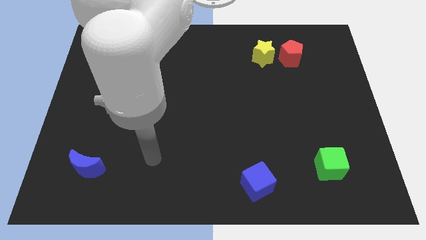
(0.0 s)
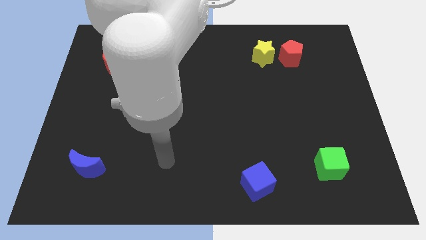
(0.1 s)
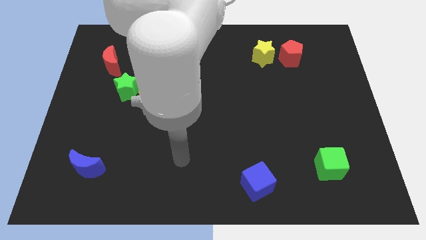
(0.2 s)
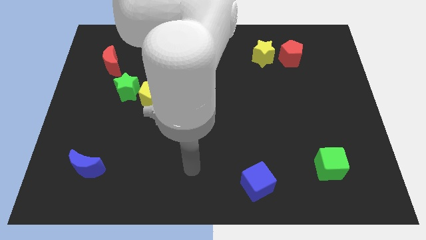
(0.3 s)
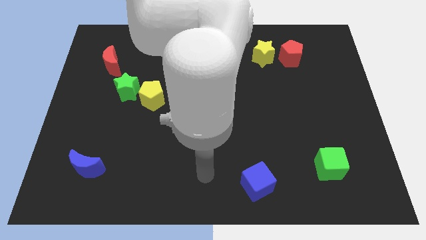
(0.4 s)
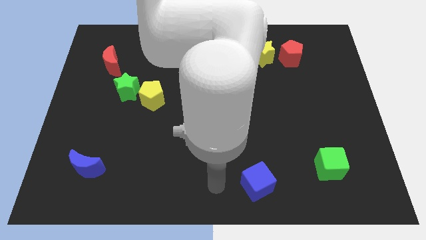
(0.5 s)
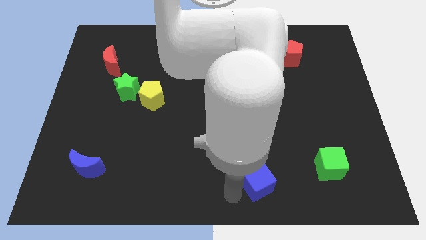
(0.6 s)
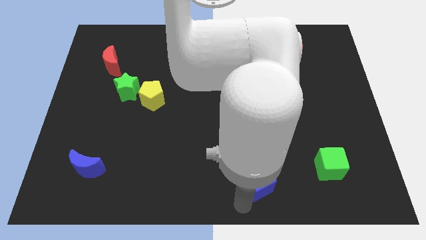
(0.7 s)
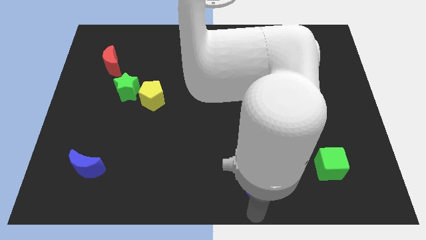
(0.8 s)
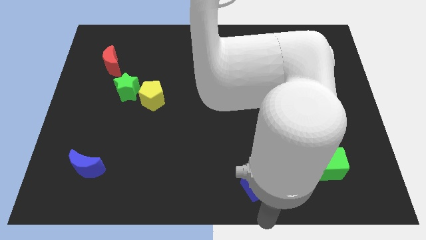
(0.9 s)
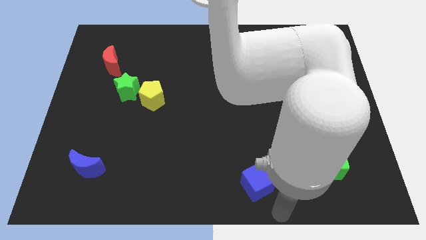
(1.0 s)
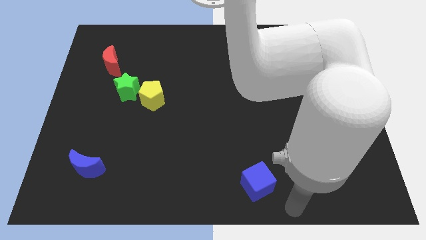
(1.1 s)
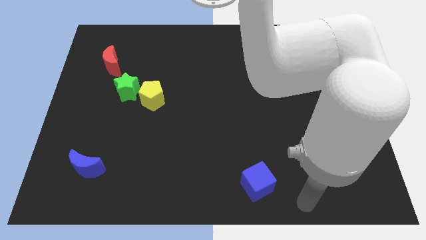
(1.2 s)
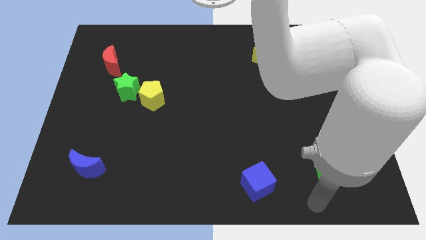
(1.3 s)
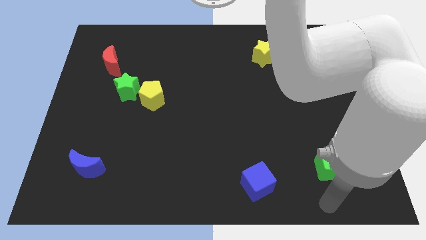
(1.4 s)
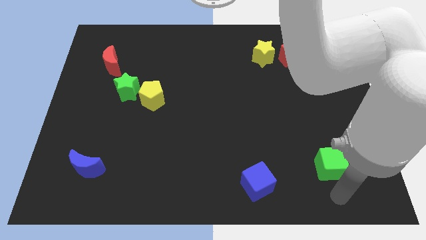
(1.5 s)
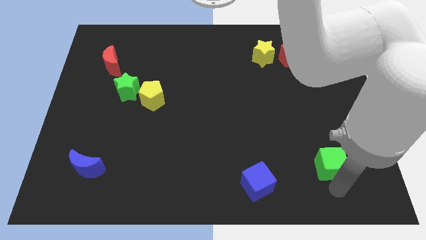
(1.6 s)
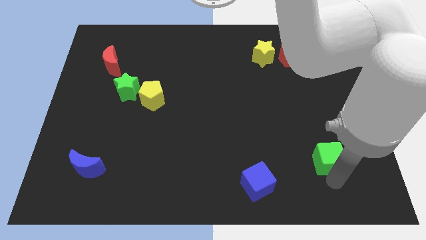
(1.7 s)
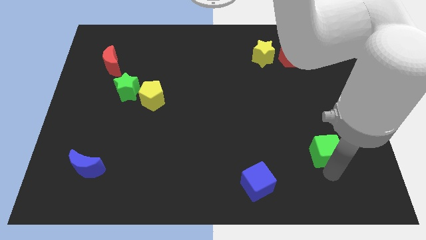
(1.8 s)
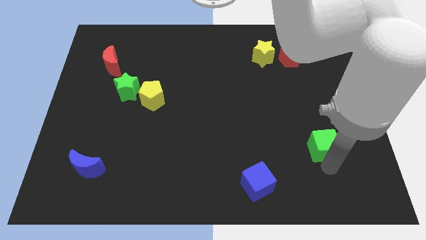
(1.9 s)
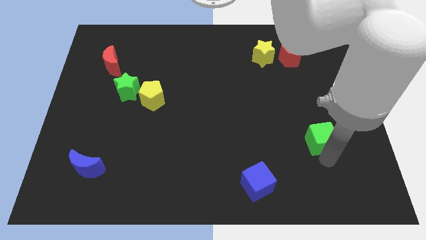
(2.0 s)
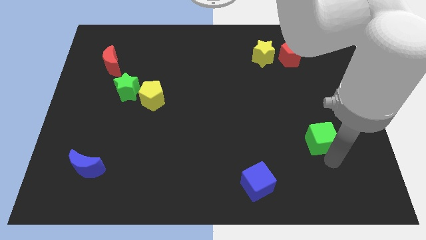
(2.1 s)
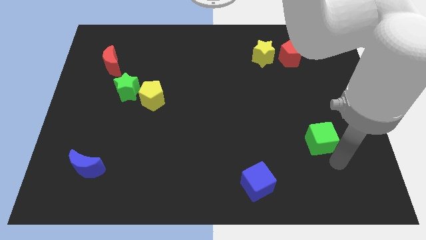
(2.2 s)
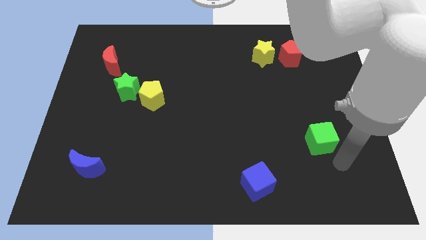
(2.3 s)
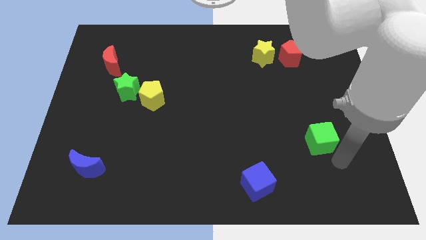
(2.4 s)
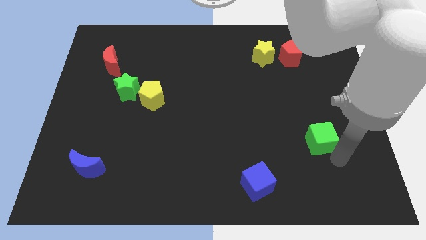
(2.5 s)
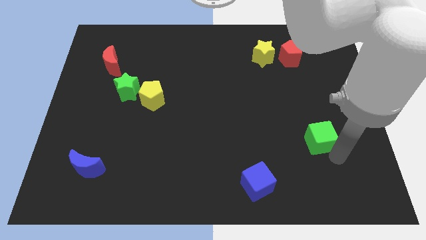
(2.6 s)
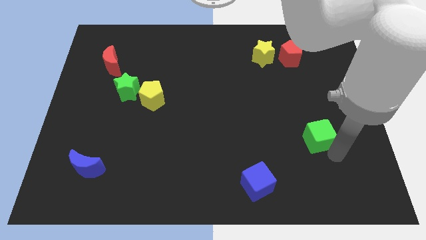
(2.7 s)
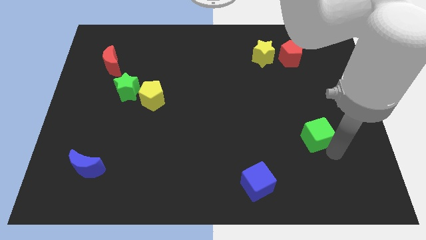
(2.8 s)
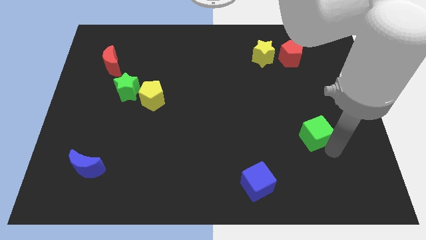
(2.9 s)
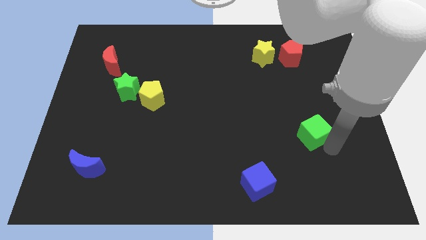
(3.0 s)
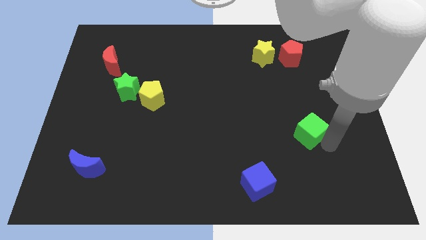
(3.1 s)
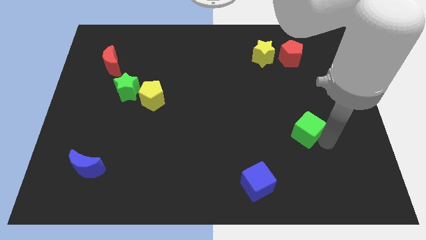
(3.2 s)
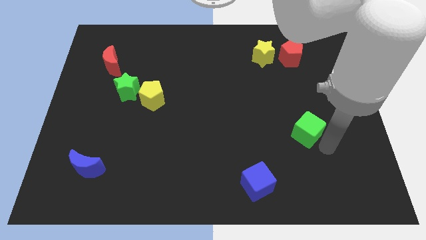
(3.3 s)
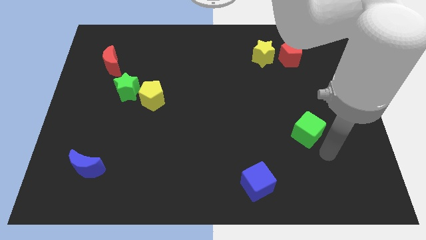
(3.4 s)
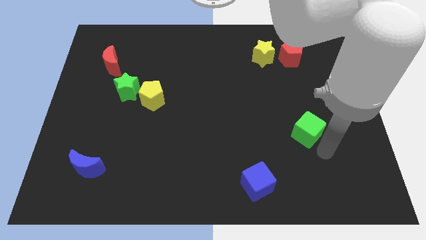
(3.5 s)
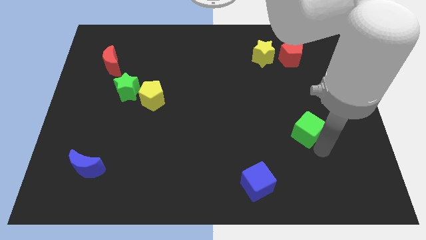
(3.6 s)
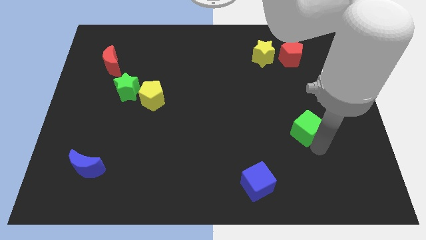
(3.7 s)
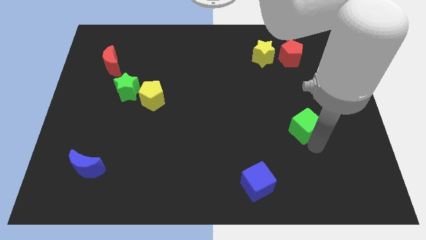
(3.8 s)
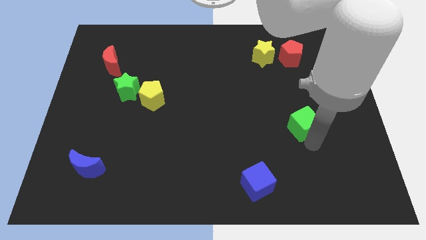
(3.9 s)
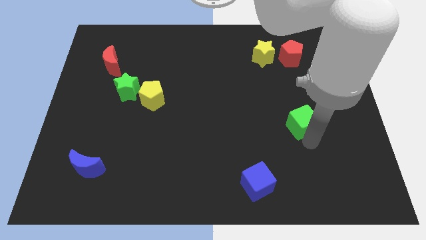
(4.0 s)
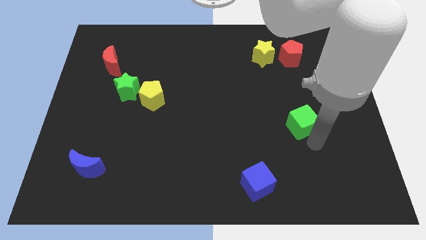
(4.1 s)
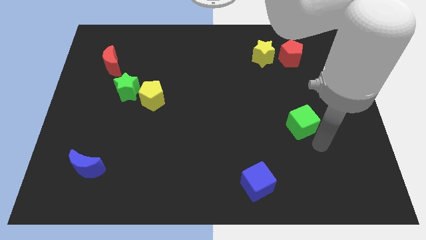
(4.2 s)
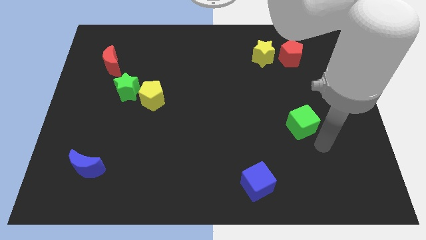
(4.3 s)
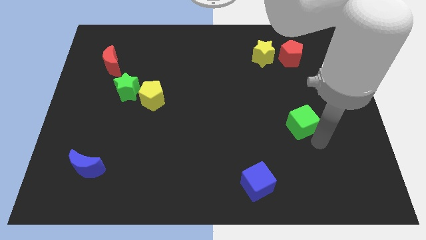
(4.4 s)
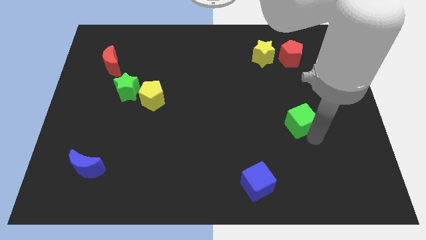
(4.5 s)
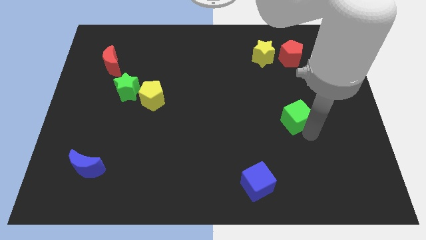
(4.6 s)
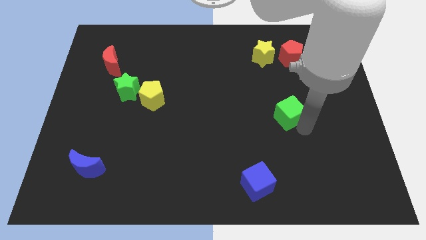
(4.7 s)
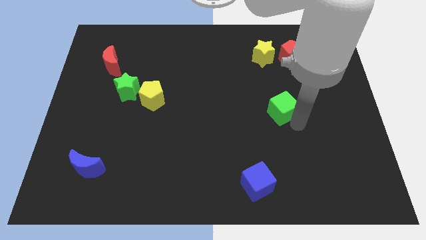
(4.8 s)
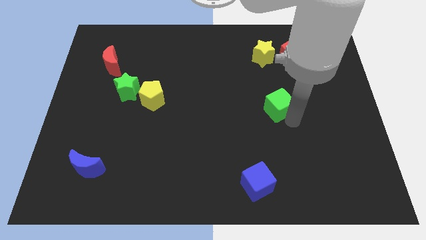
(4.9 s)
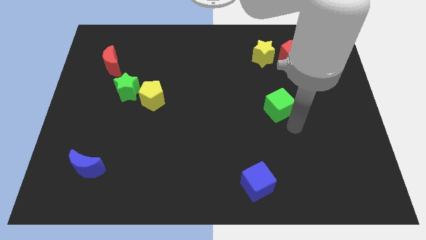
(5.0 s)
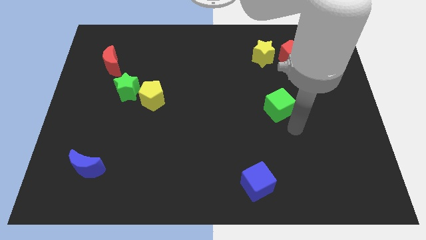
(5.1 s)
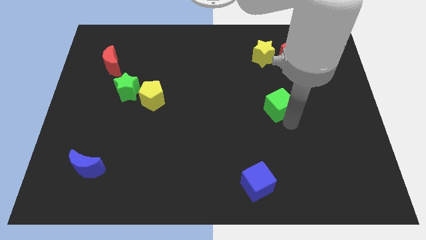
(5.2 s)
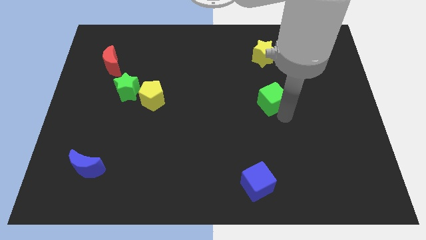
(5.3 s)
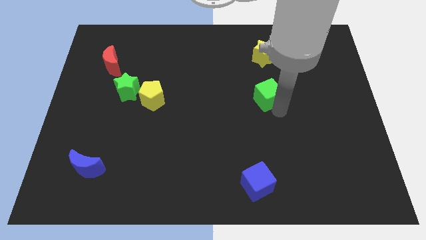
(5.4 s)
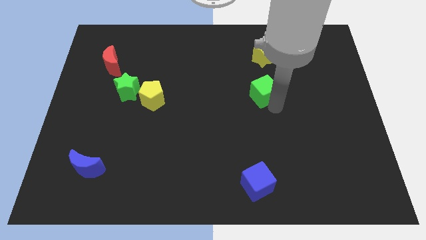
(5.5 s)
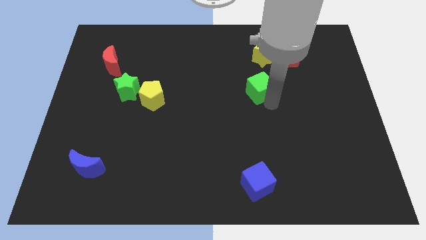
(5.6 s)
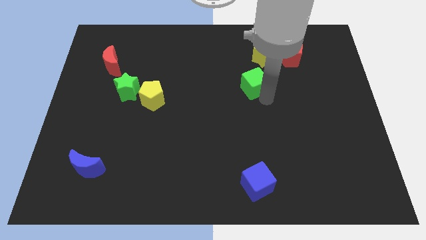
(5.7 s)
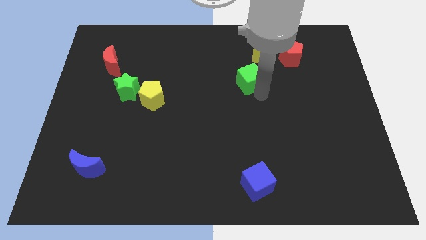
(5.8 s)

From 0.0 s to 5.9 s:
push the green cube to the bottom left side of the yellow star
